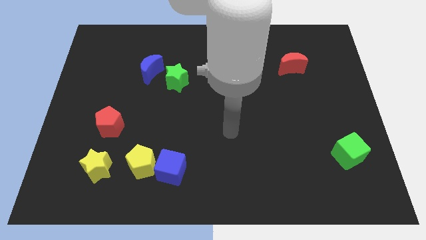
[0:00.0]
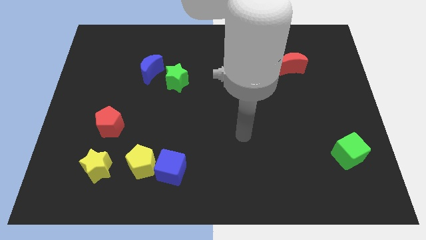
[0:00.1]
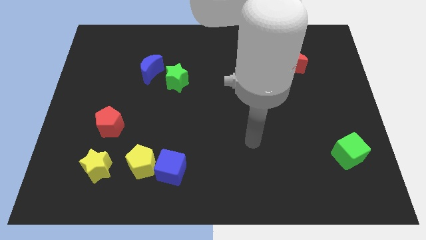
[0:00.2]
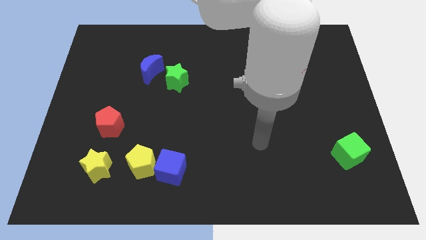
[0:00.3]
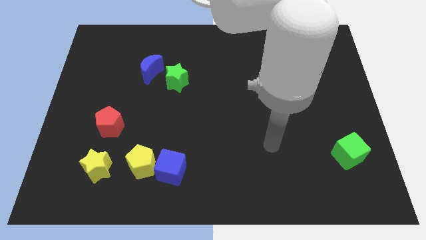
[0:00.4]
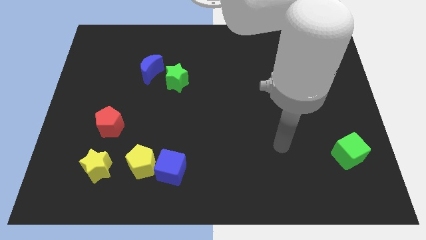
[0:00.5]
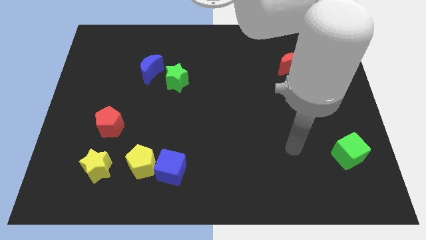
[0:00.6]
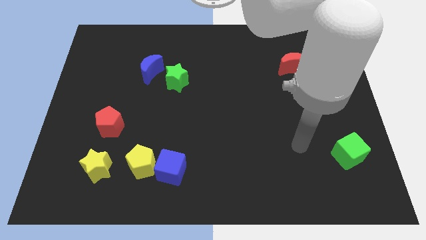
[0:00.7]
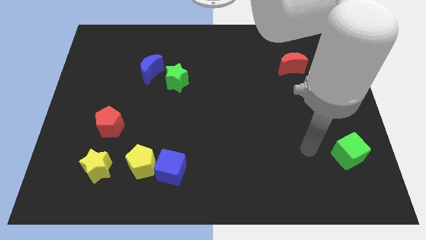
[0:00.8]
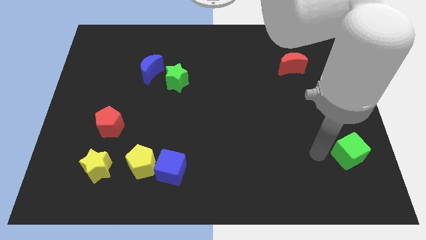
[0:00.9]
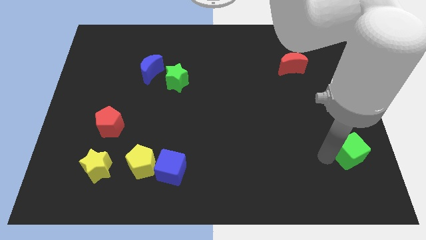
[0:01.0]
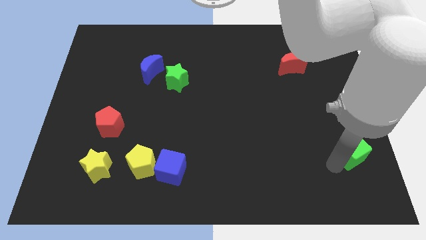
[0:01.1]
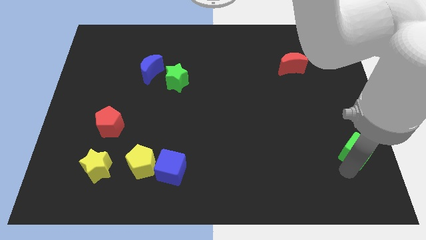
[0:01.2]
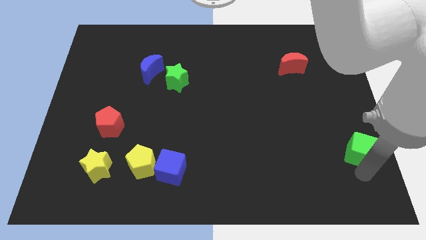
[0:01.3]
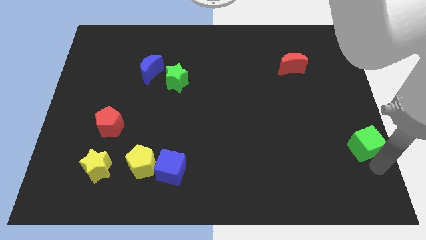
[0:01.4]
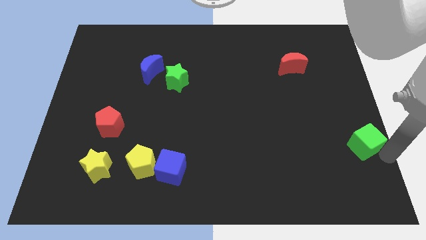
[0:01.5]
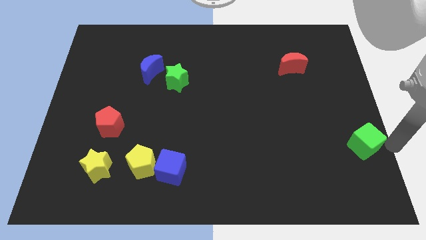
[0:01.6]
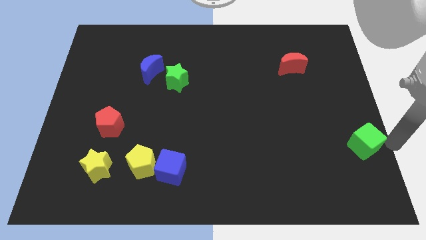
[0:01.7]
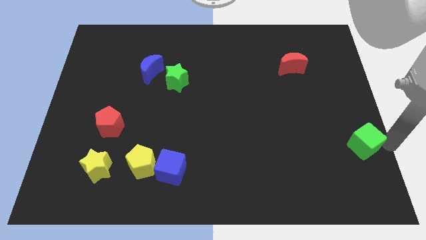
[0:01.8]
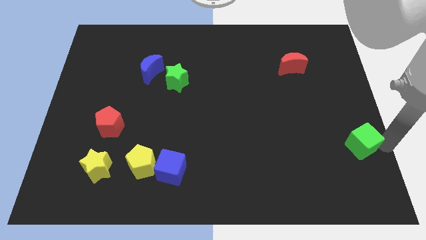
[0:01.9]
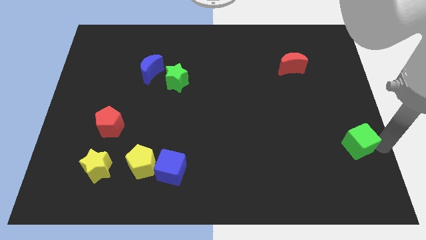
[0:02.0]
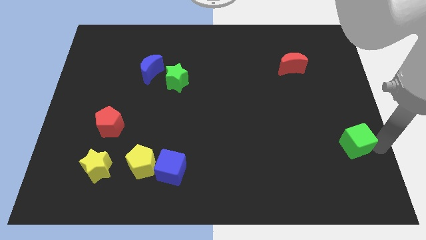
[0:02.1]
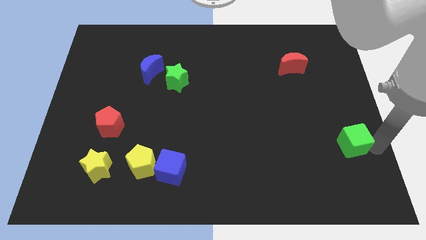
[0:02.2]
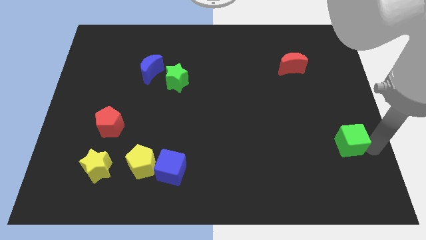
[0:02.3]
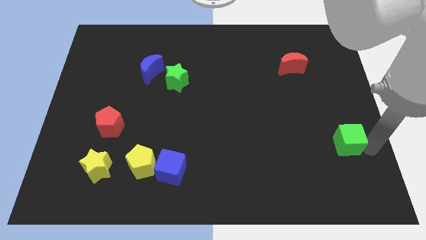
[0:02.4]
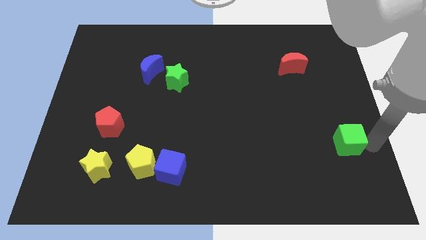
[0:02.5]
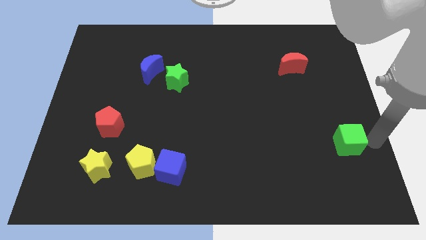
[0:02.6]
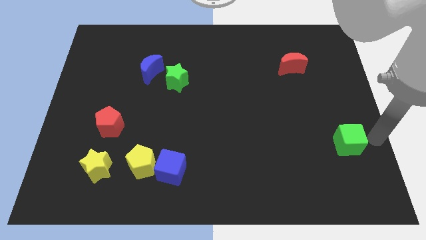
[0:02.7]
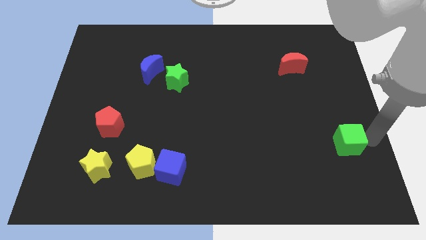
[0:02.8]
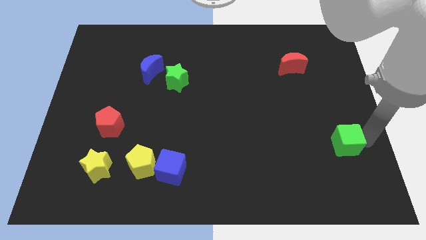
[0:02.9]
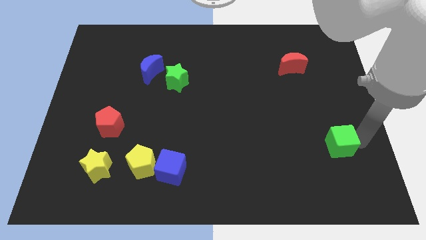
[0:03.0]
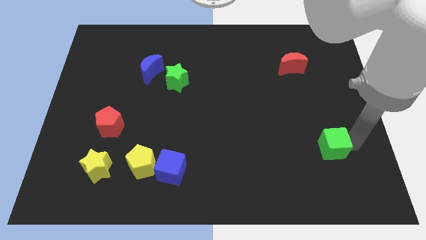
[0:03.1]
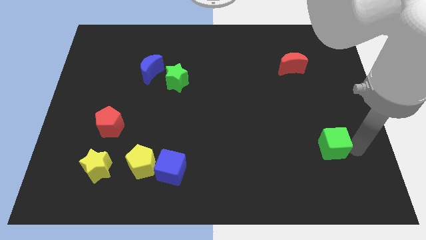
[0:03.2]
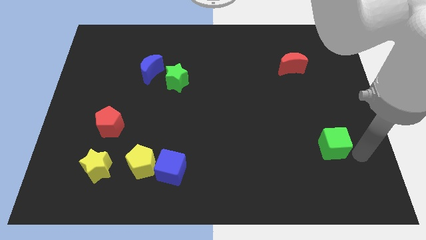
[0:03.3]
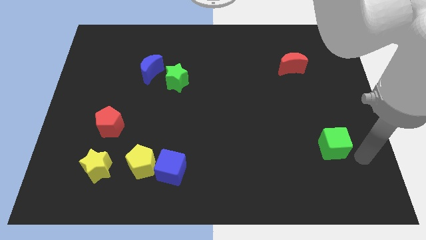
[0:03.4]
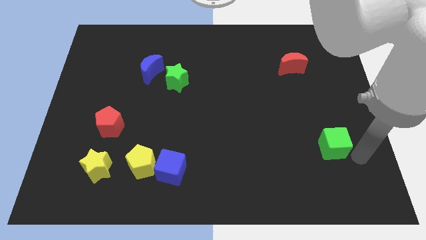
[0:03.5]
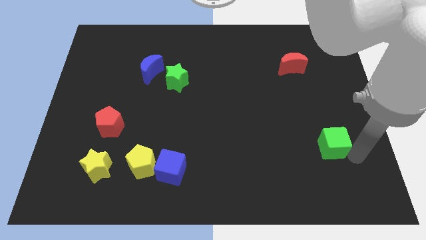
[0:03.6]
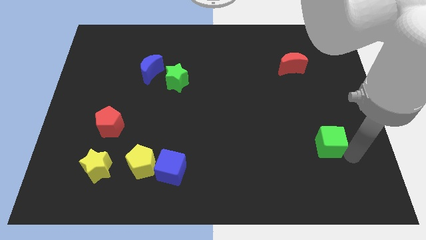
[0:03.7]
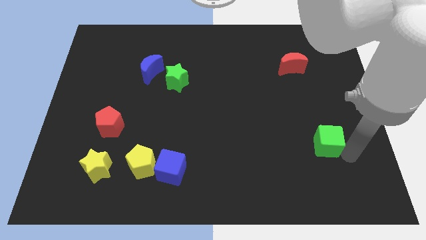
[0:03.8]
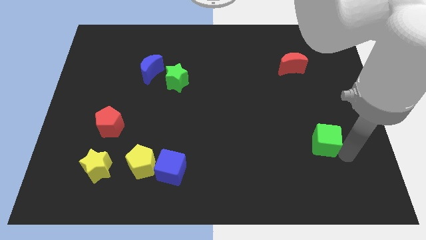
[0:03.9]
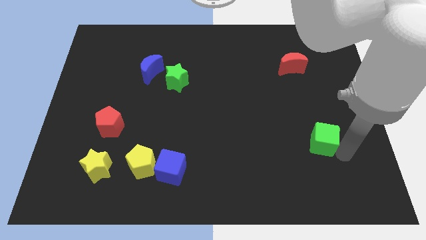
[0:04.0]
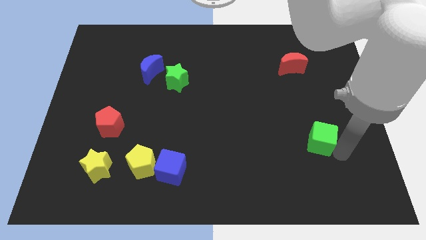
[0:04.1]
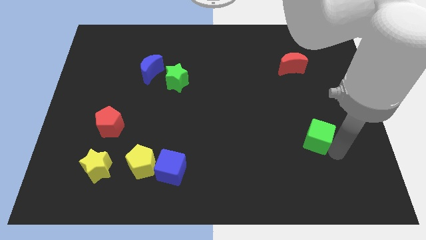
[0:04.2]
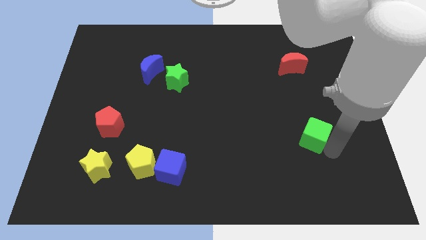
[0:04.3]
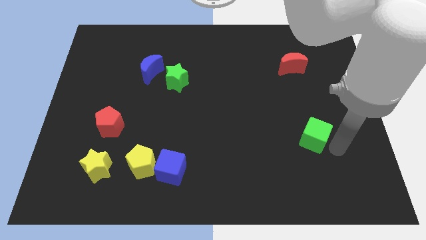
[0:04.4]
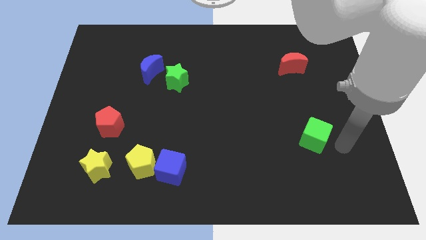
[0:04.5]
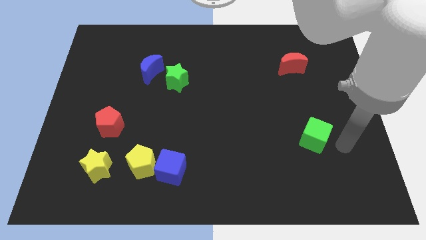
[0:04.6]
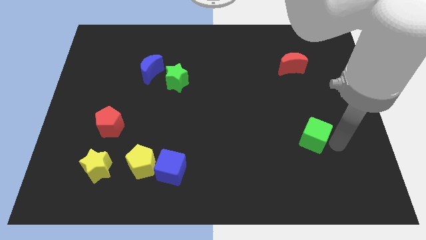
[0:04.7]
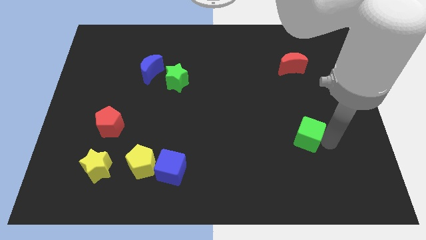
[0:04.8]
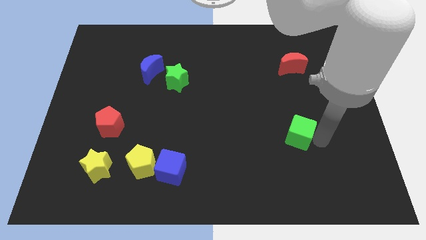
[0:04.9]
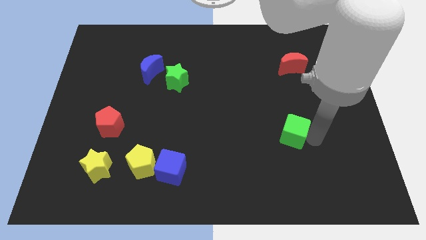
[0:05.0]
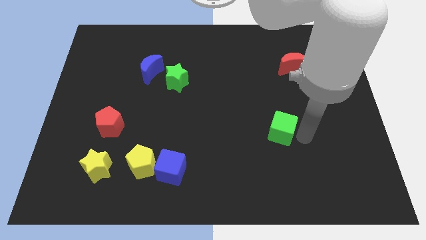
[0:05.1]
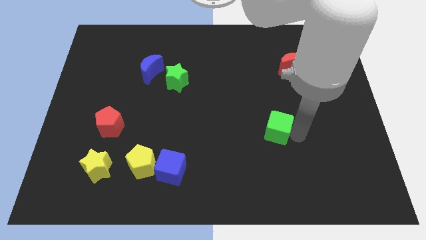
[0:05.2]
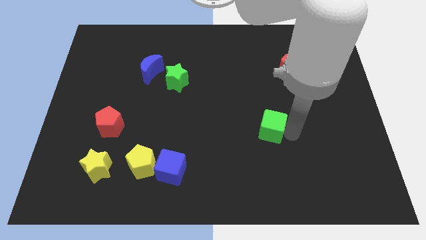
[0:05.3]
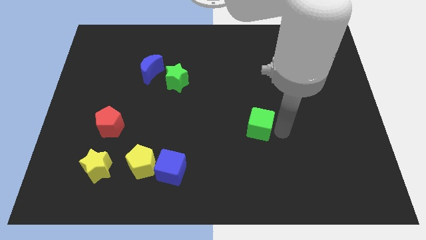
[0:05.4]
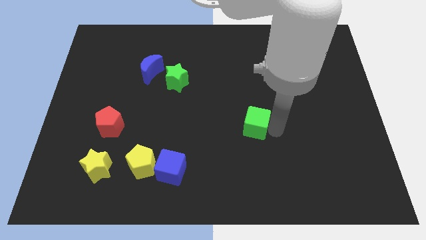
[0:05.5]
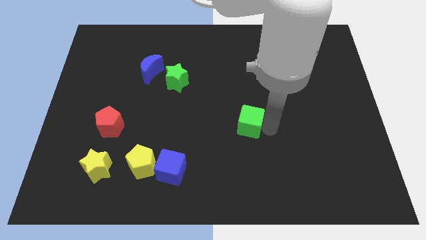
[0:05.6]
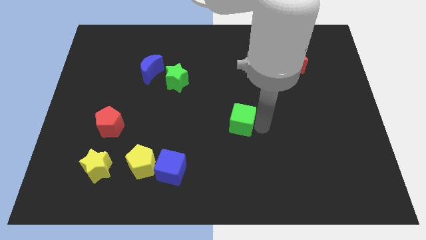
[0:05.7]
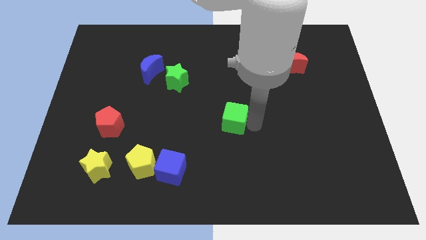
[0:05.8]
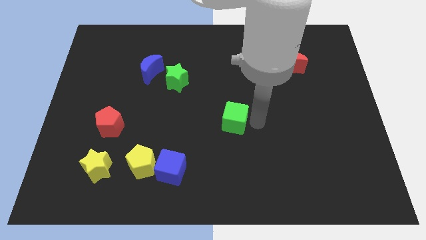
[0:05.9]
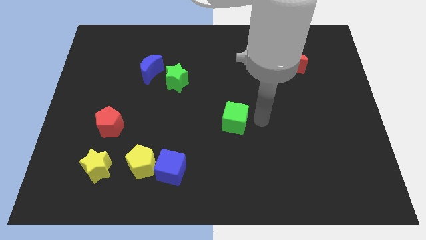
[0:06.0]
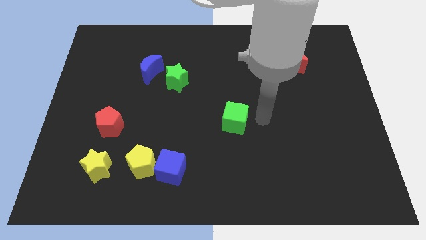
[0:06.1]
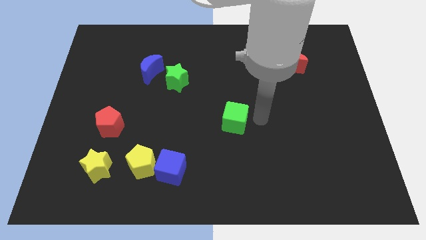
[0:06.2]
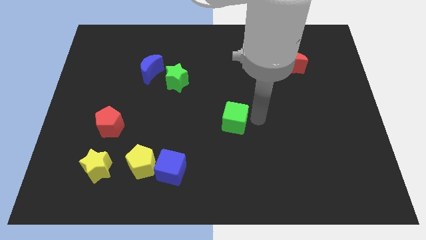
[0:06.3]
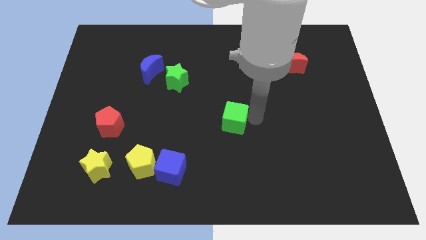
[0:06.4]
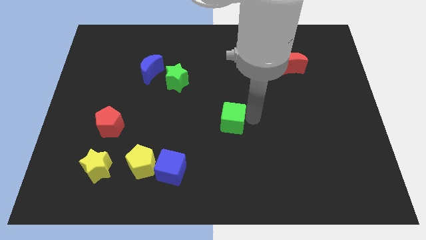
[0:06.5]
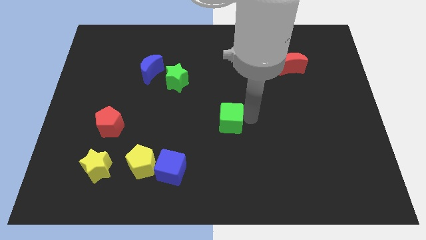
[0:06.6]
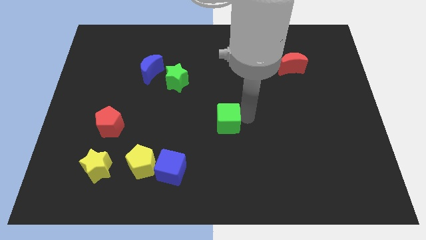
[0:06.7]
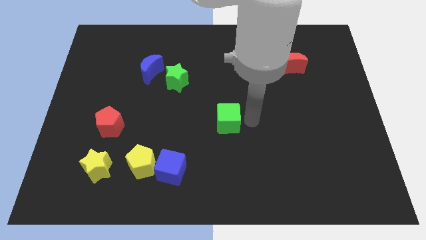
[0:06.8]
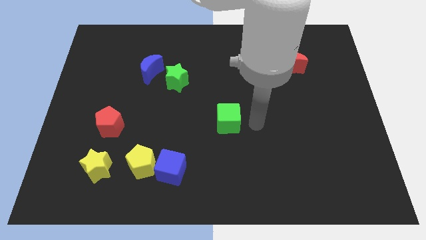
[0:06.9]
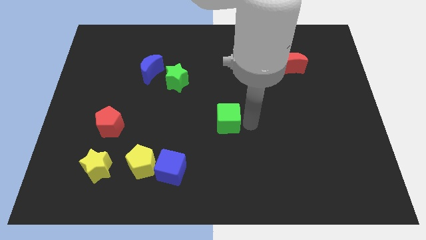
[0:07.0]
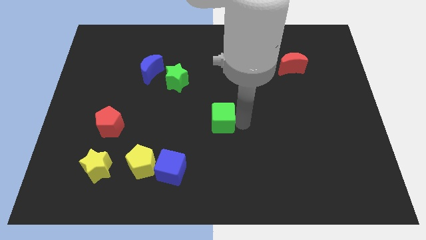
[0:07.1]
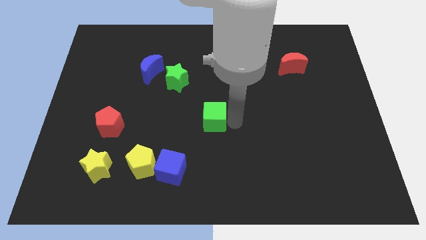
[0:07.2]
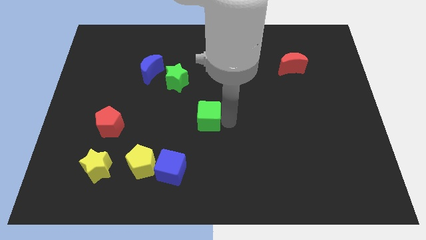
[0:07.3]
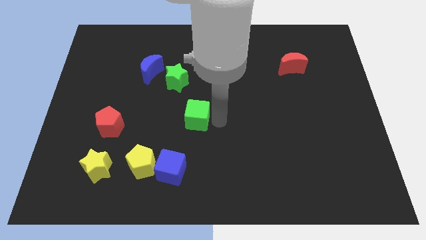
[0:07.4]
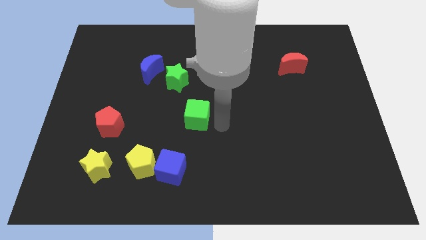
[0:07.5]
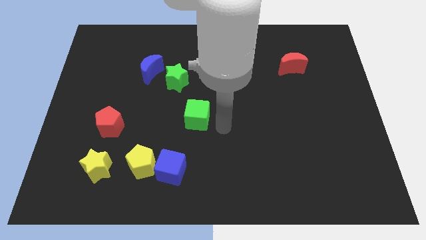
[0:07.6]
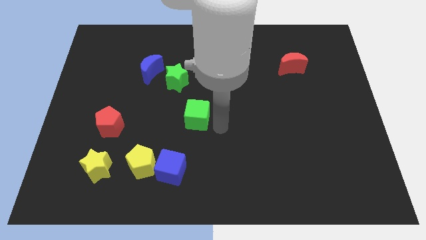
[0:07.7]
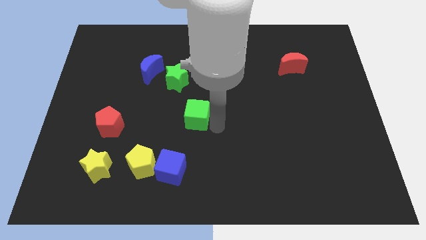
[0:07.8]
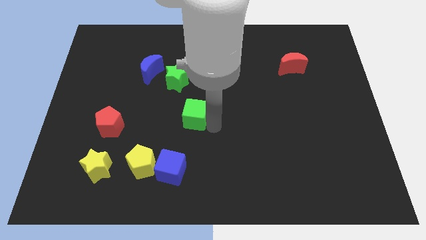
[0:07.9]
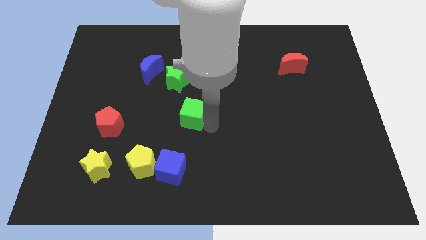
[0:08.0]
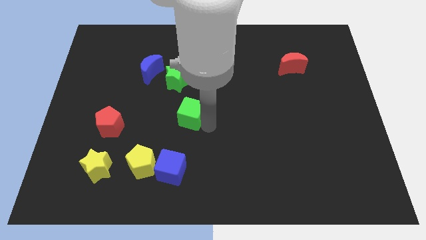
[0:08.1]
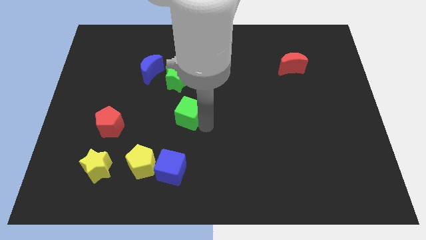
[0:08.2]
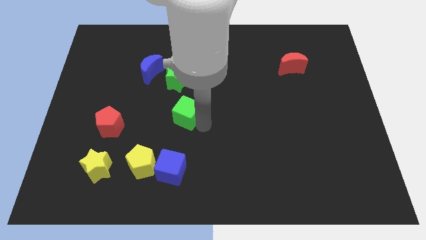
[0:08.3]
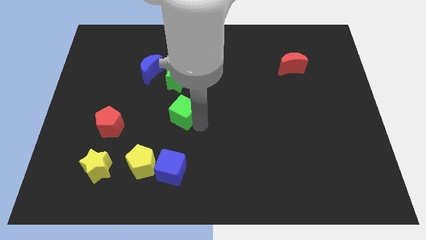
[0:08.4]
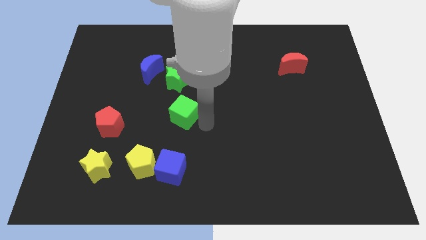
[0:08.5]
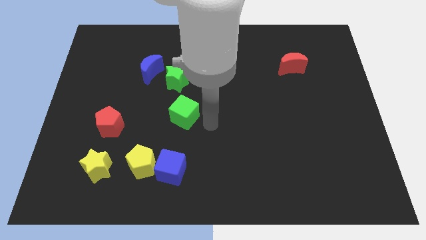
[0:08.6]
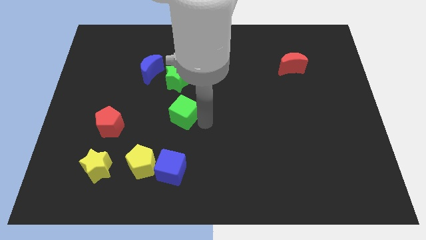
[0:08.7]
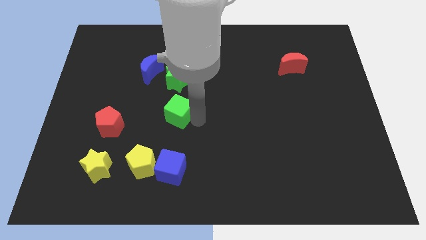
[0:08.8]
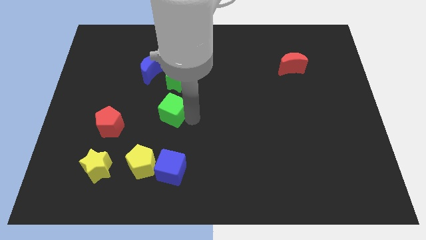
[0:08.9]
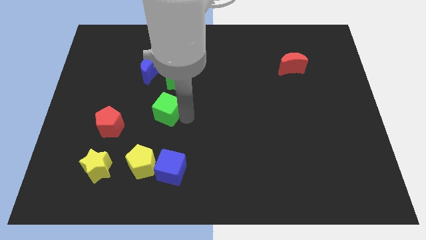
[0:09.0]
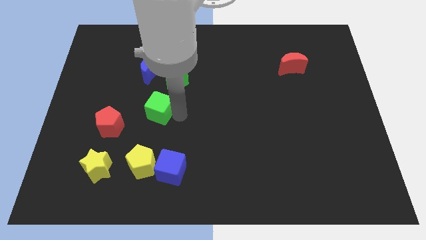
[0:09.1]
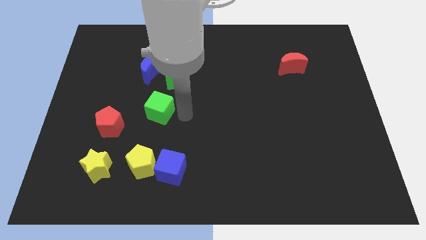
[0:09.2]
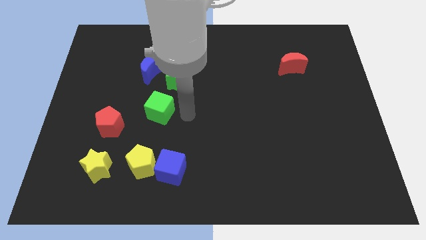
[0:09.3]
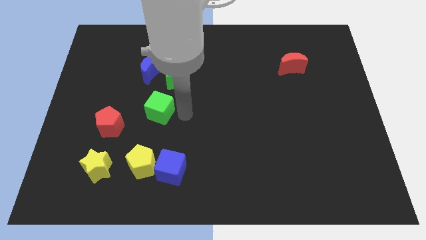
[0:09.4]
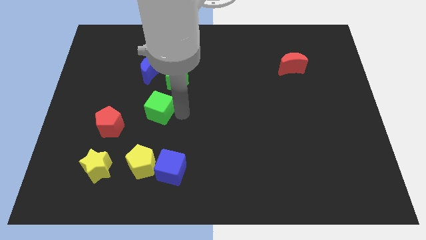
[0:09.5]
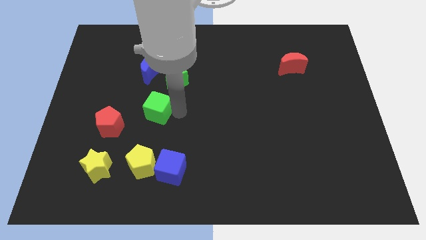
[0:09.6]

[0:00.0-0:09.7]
move the green cube diagonally up and to the right of the red pentagon
